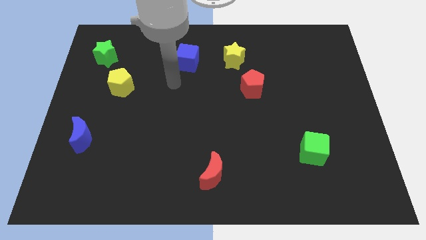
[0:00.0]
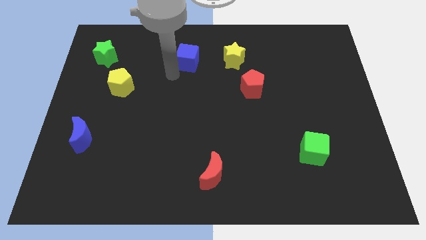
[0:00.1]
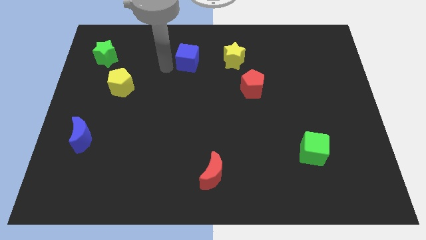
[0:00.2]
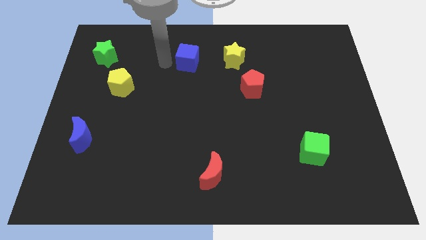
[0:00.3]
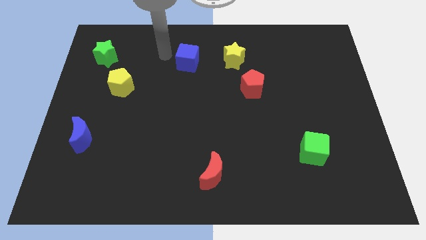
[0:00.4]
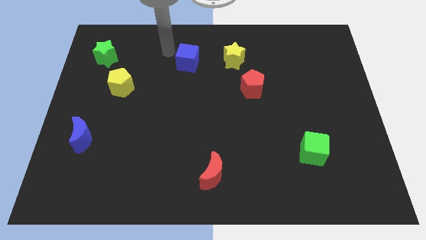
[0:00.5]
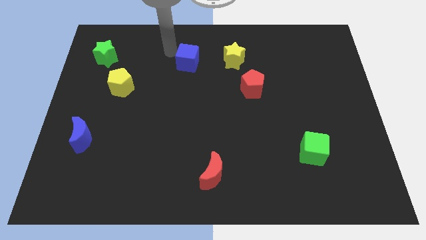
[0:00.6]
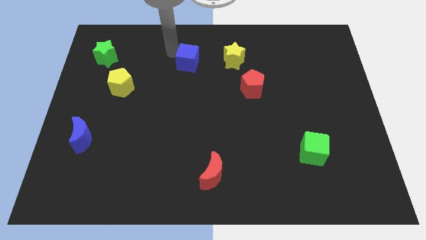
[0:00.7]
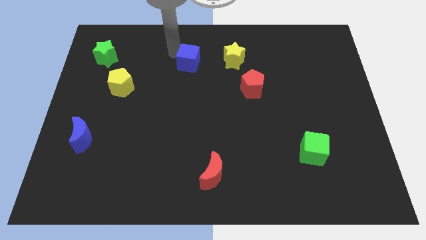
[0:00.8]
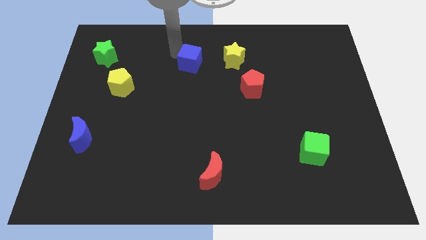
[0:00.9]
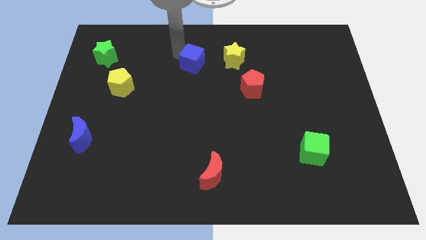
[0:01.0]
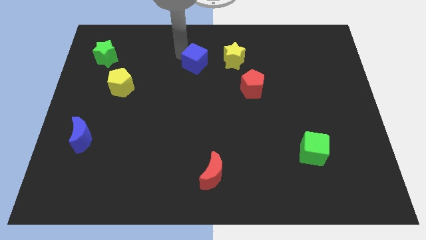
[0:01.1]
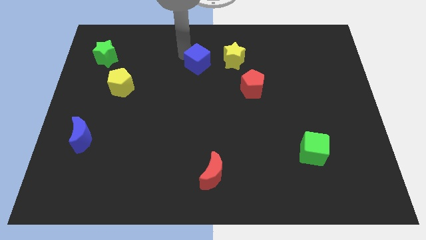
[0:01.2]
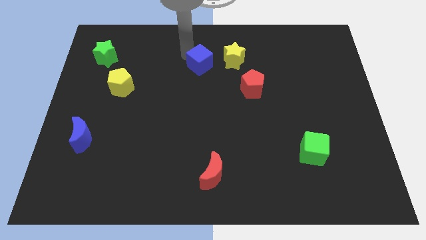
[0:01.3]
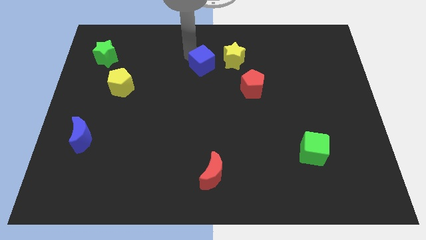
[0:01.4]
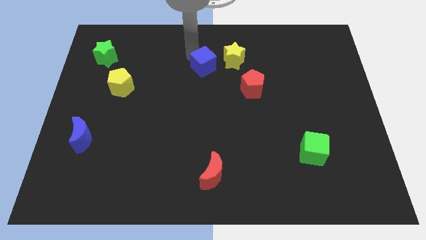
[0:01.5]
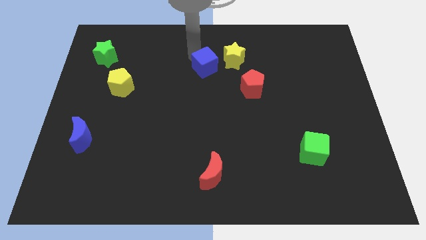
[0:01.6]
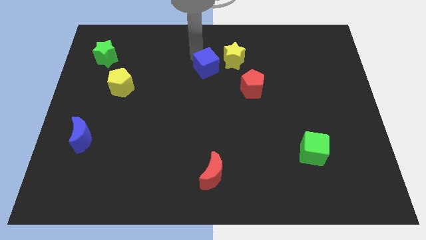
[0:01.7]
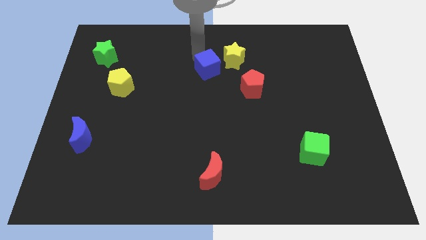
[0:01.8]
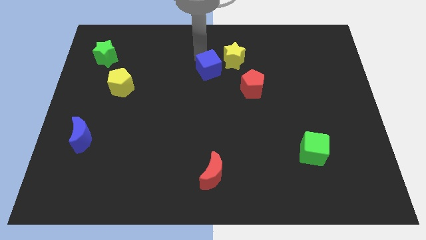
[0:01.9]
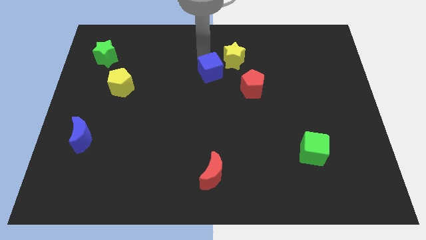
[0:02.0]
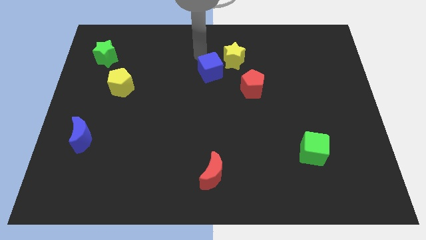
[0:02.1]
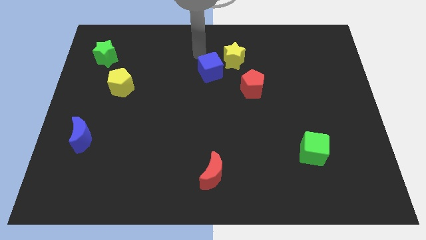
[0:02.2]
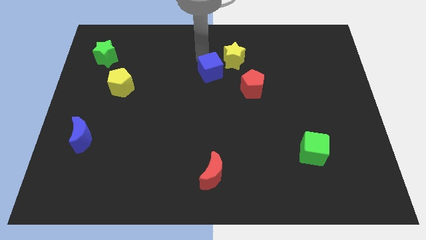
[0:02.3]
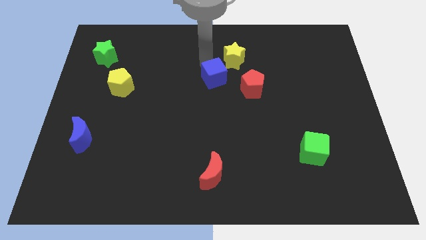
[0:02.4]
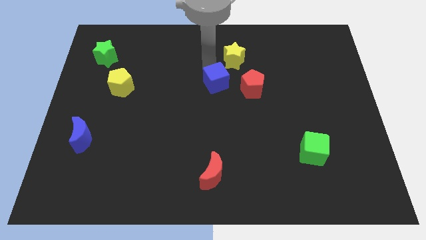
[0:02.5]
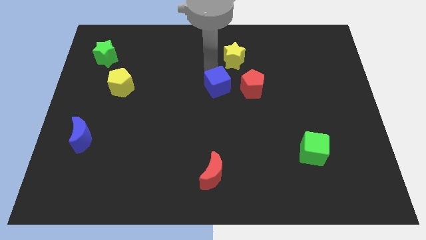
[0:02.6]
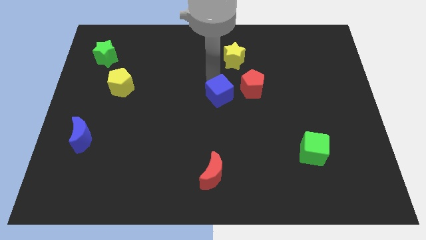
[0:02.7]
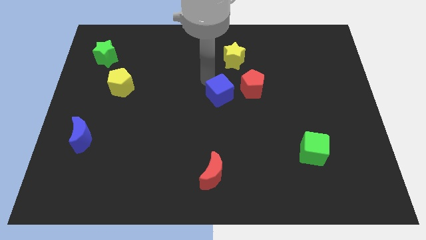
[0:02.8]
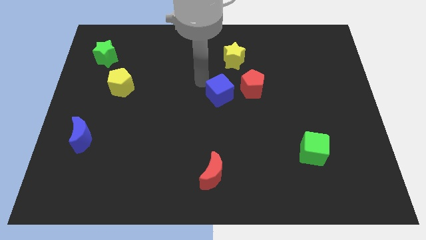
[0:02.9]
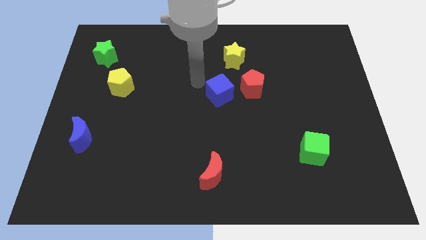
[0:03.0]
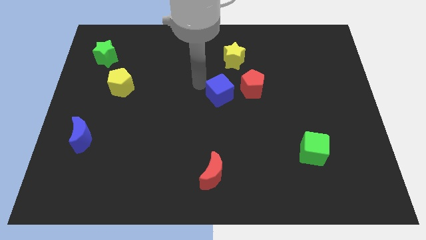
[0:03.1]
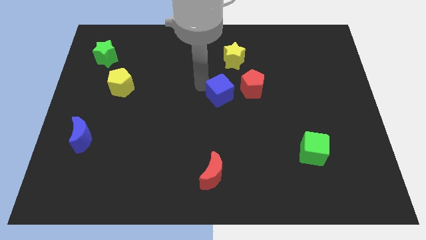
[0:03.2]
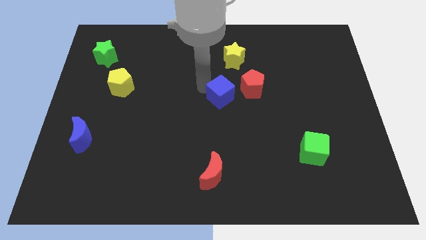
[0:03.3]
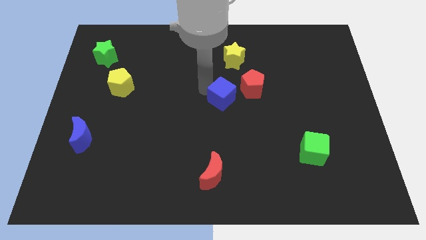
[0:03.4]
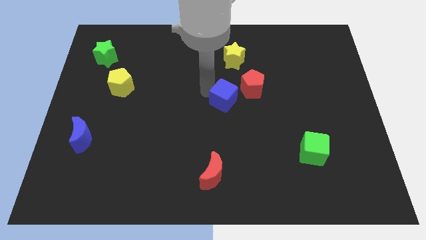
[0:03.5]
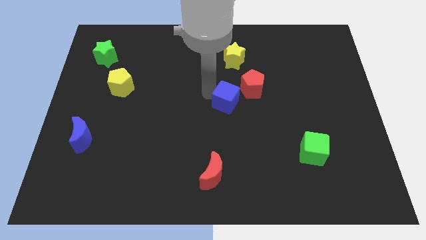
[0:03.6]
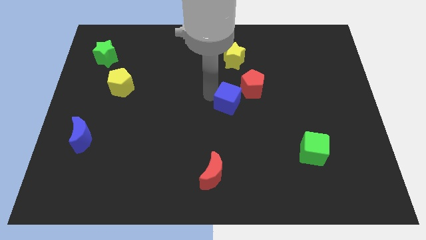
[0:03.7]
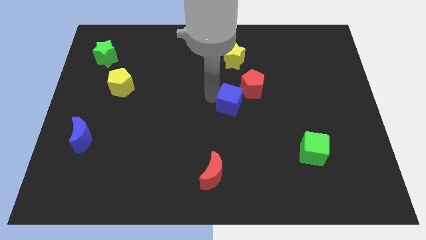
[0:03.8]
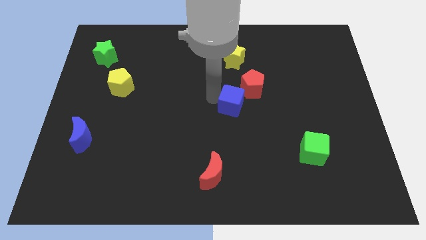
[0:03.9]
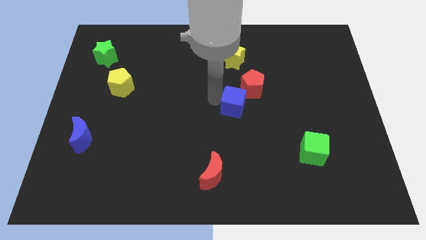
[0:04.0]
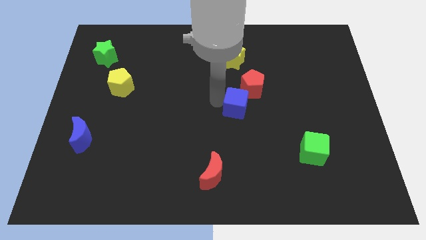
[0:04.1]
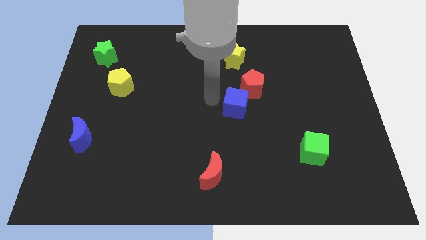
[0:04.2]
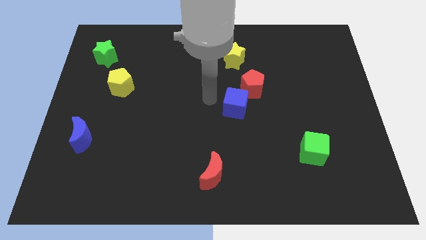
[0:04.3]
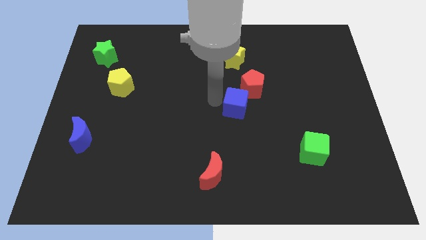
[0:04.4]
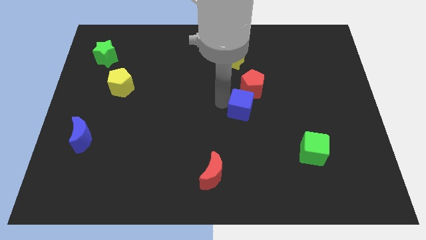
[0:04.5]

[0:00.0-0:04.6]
move the blue cube downwards and then to the right

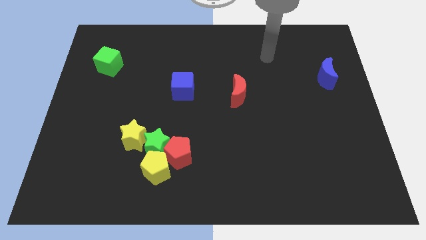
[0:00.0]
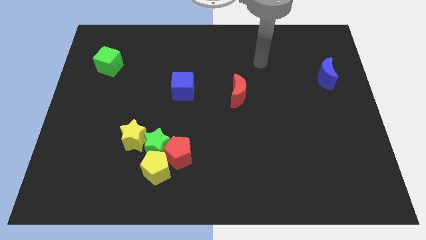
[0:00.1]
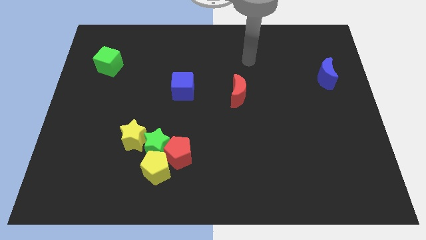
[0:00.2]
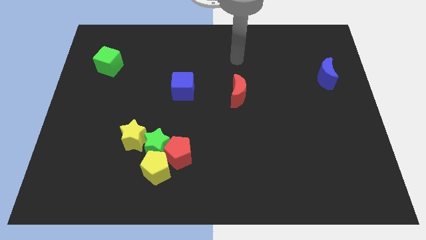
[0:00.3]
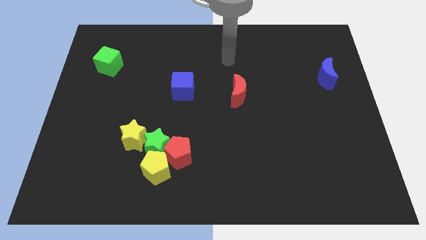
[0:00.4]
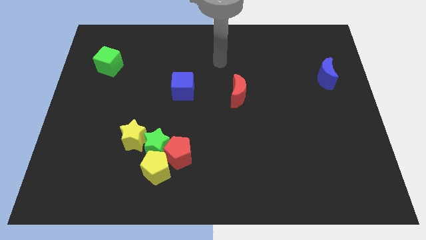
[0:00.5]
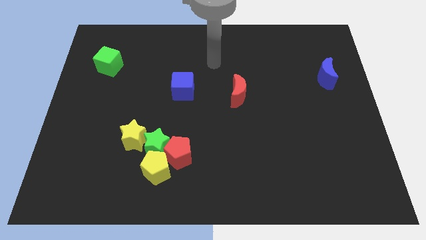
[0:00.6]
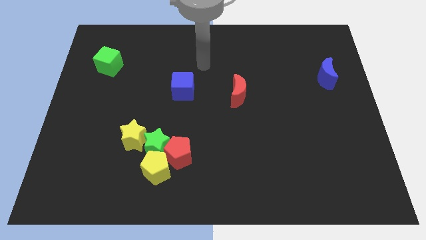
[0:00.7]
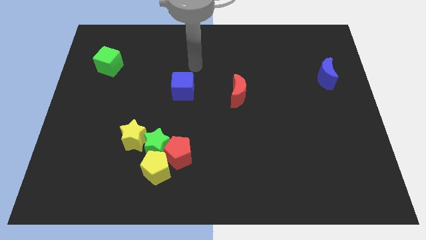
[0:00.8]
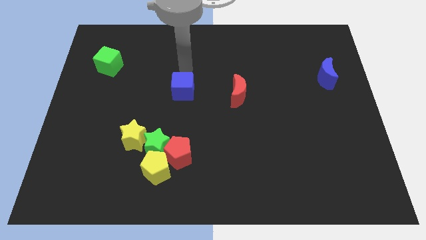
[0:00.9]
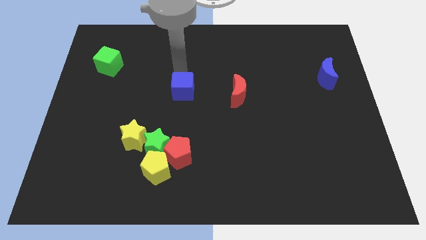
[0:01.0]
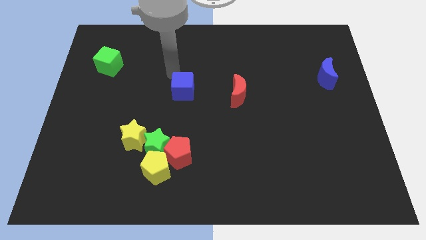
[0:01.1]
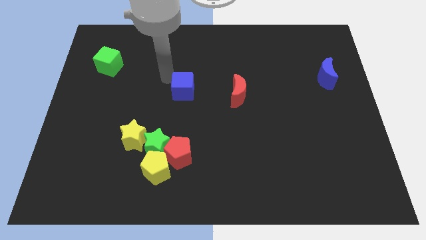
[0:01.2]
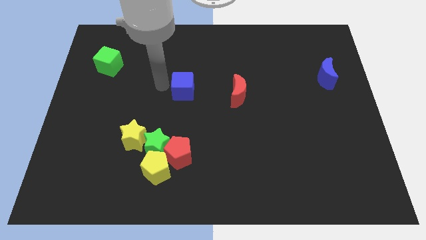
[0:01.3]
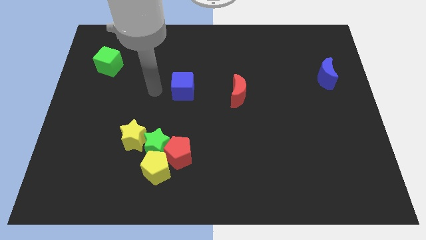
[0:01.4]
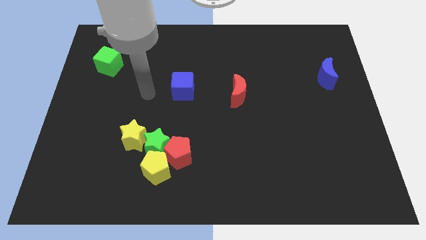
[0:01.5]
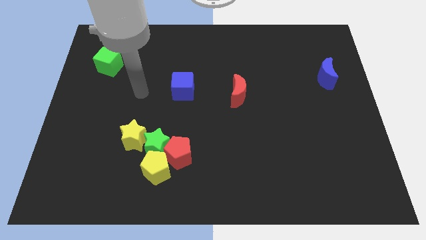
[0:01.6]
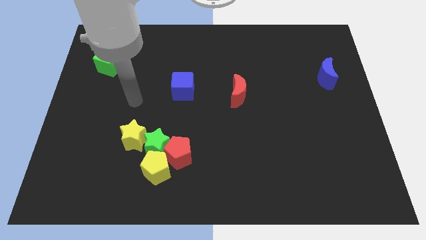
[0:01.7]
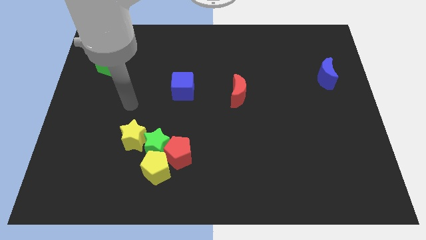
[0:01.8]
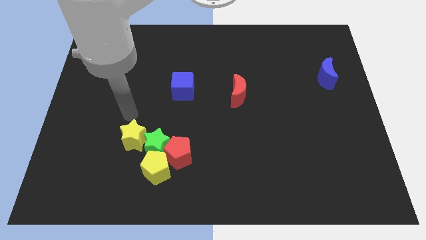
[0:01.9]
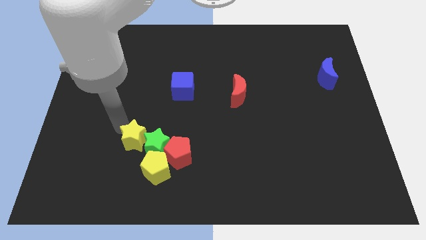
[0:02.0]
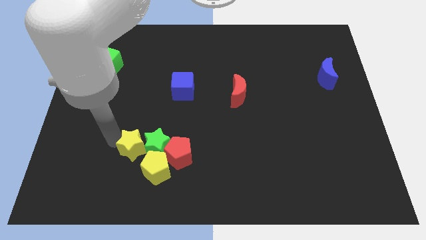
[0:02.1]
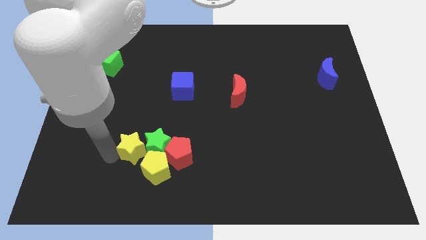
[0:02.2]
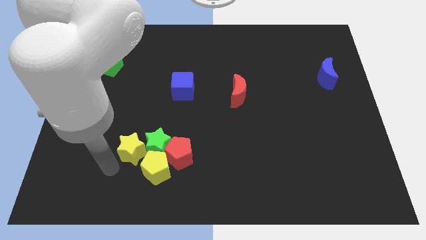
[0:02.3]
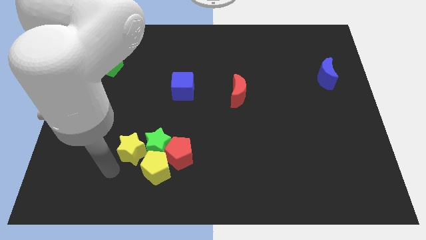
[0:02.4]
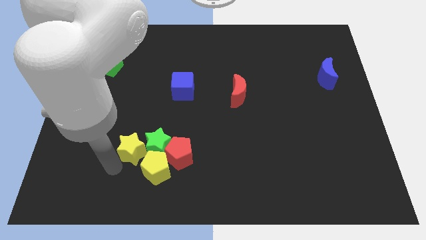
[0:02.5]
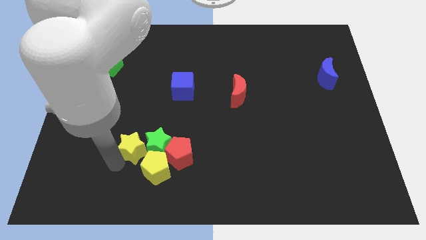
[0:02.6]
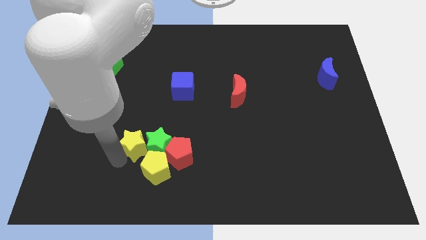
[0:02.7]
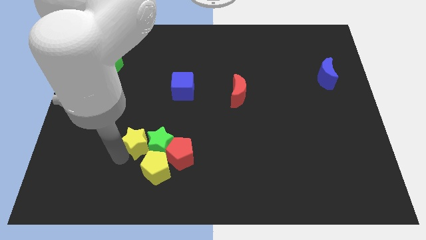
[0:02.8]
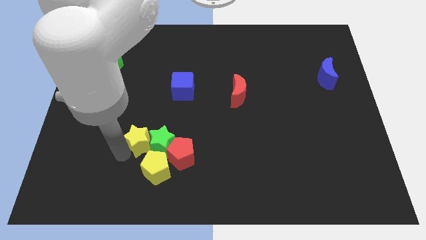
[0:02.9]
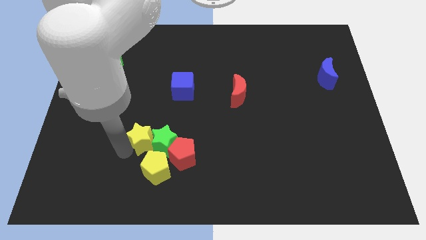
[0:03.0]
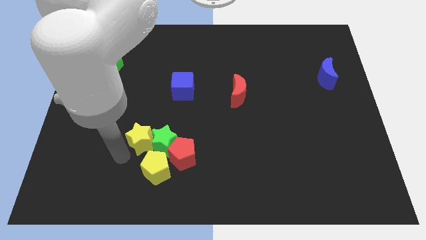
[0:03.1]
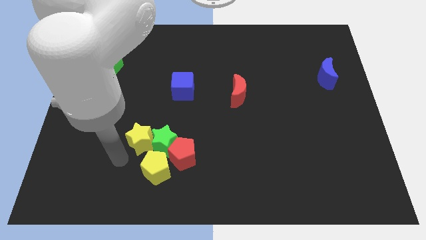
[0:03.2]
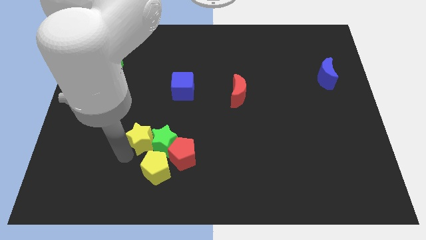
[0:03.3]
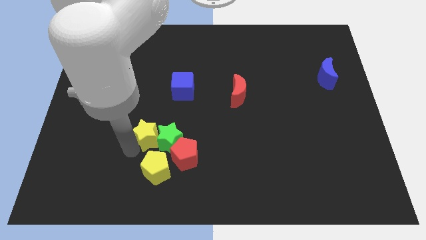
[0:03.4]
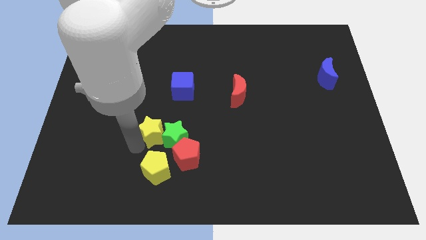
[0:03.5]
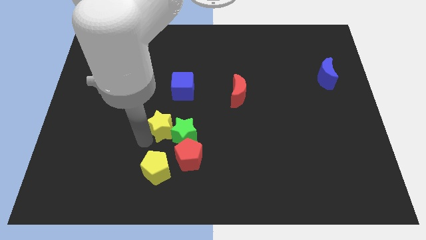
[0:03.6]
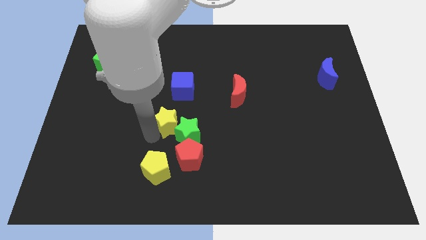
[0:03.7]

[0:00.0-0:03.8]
slightly push the yellow star diagonally upwards and to the right
